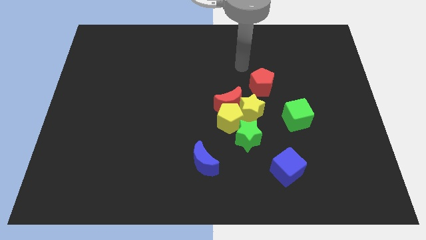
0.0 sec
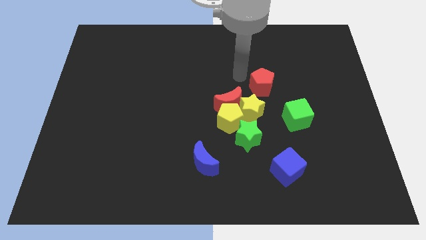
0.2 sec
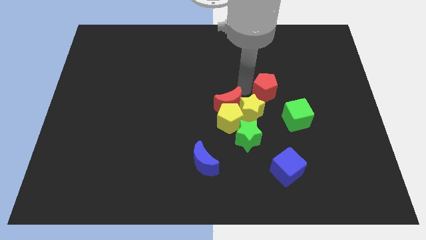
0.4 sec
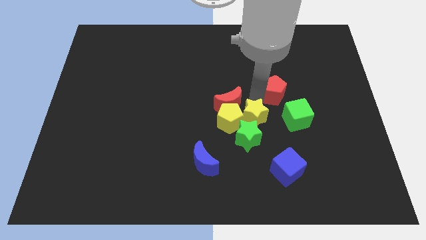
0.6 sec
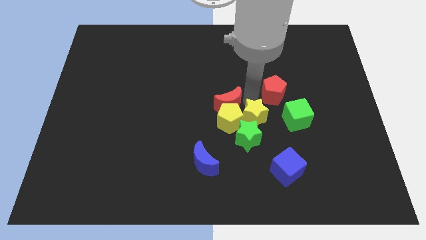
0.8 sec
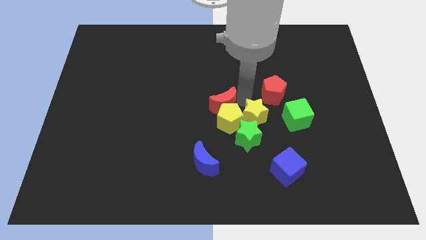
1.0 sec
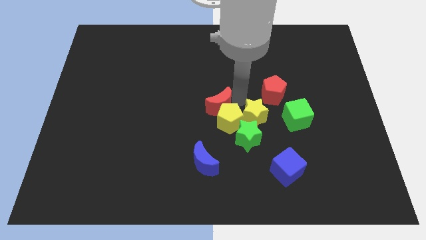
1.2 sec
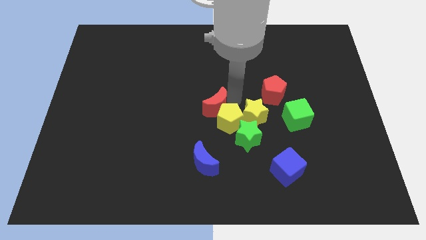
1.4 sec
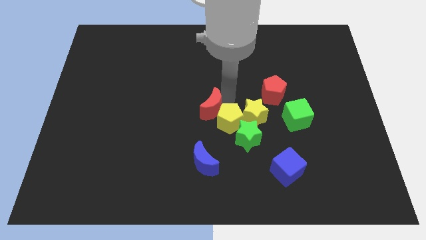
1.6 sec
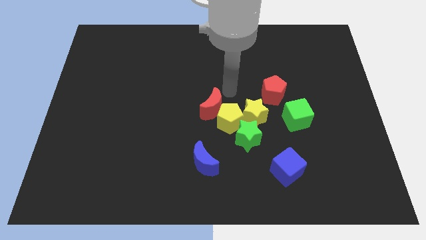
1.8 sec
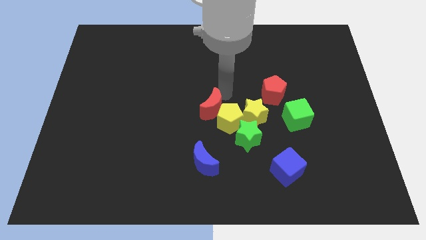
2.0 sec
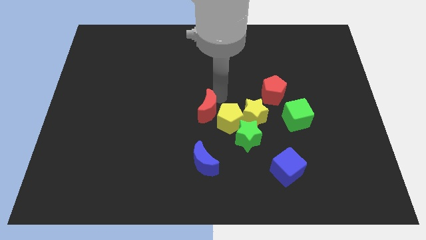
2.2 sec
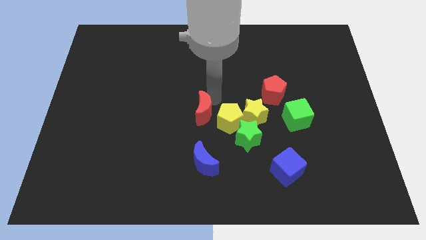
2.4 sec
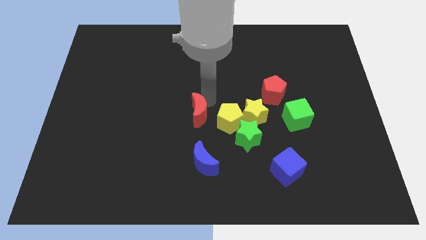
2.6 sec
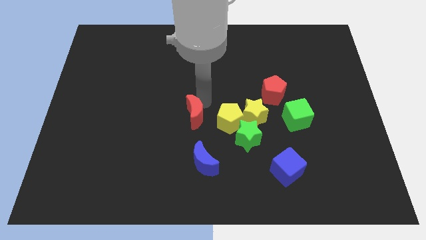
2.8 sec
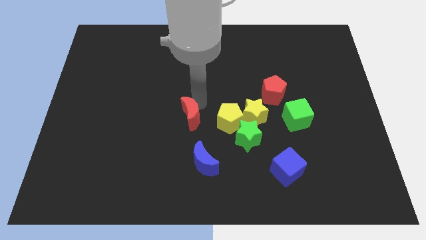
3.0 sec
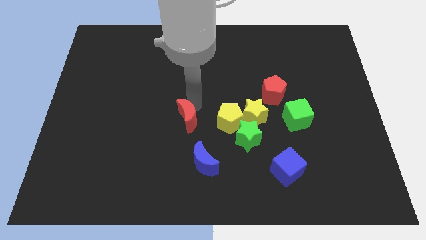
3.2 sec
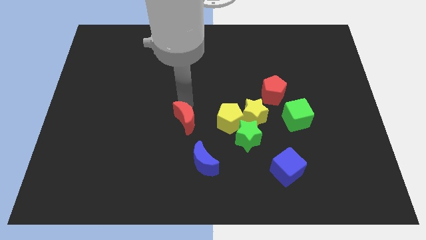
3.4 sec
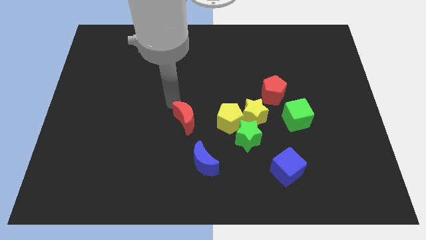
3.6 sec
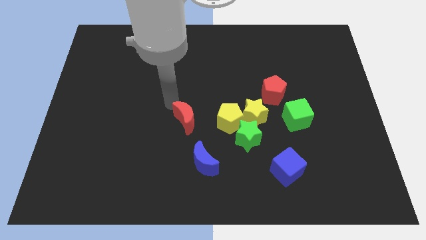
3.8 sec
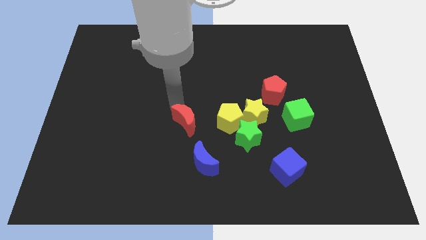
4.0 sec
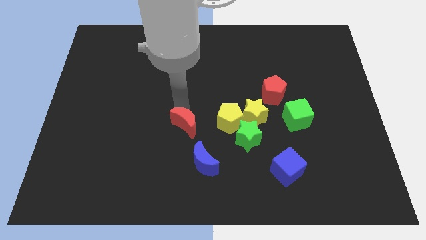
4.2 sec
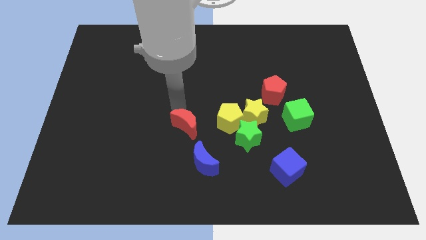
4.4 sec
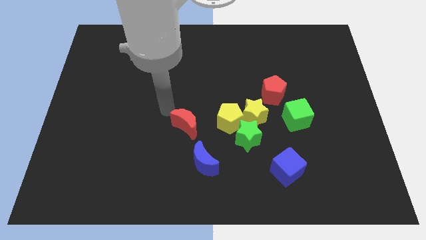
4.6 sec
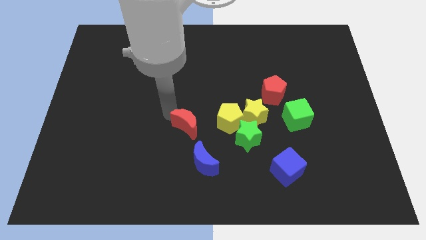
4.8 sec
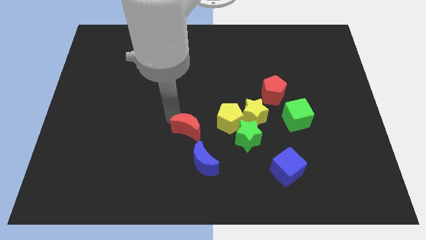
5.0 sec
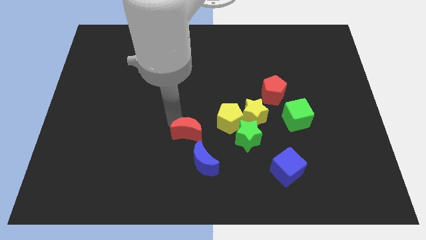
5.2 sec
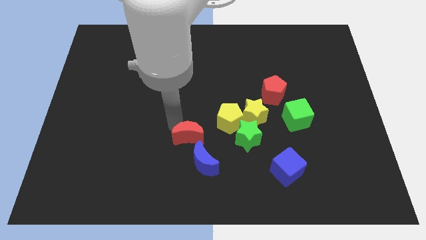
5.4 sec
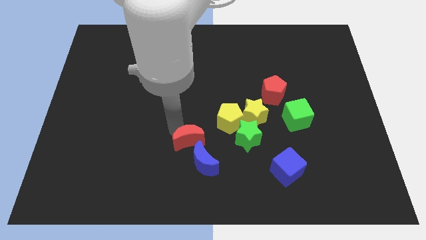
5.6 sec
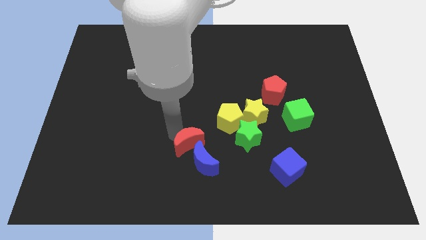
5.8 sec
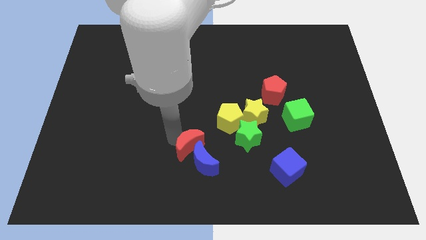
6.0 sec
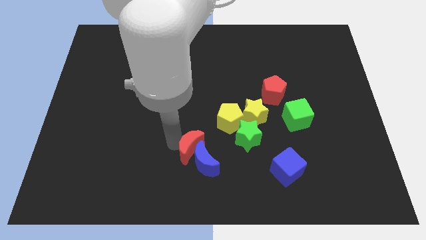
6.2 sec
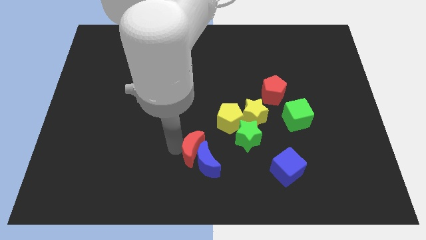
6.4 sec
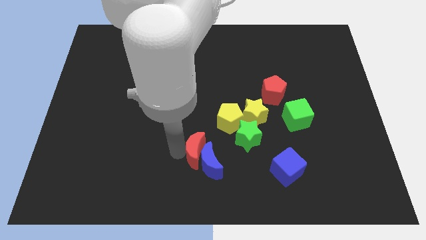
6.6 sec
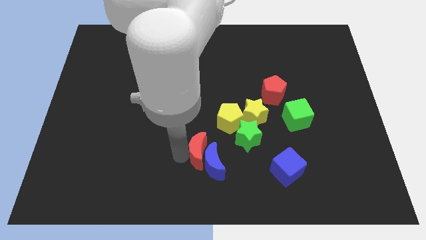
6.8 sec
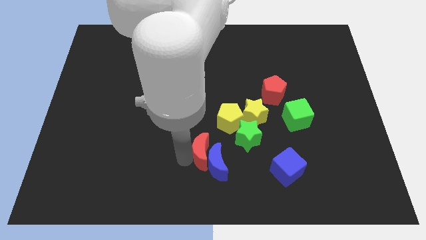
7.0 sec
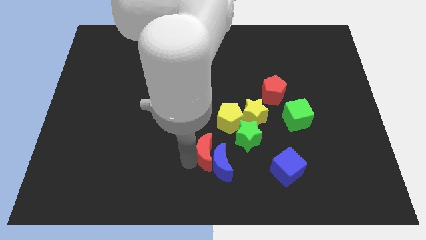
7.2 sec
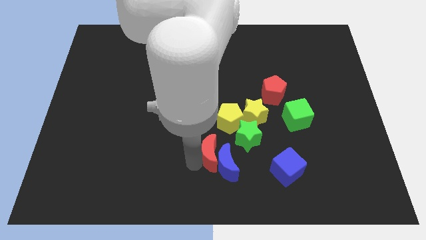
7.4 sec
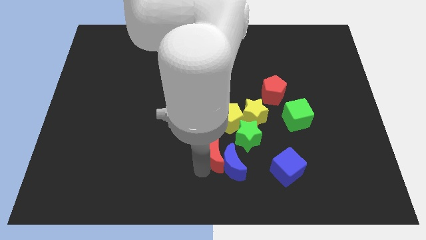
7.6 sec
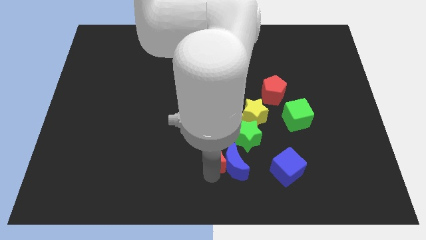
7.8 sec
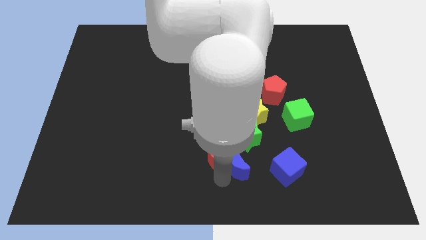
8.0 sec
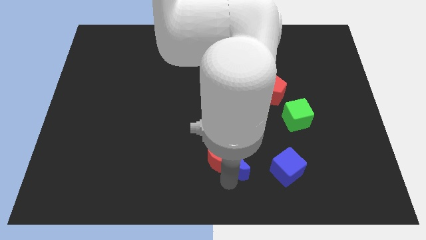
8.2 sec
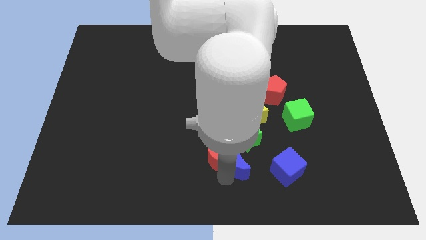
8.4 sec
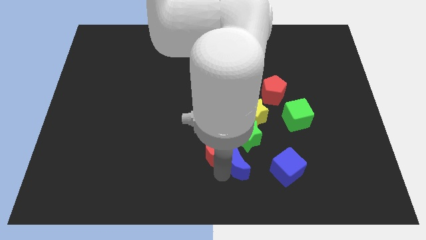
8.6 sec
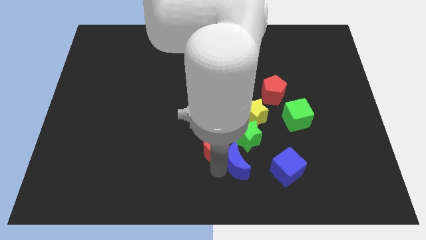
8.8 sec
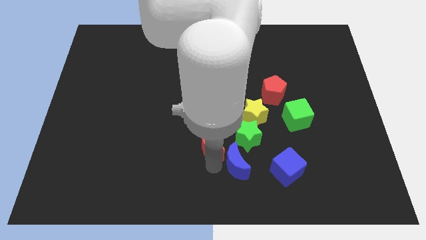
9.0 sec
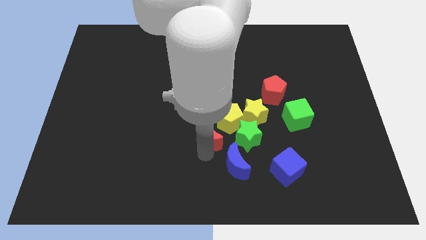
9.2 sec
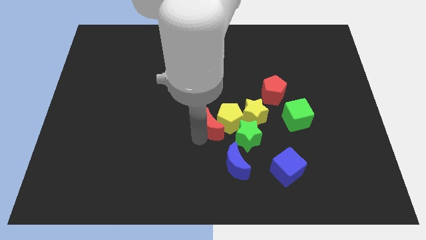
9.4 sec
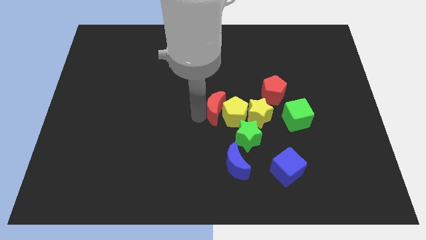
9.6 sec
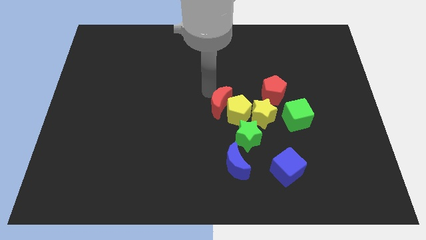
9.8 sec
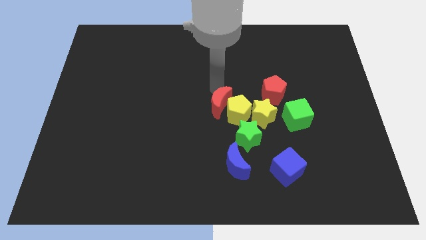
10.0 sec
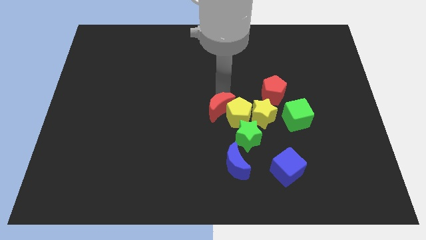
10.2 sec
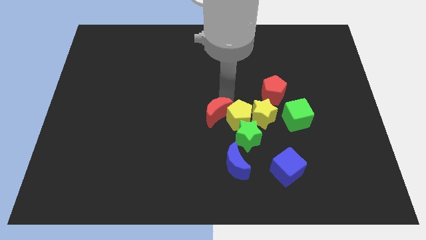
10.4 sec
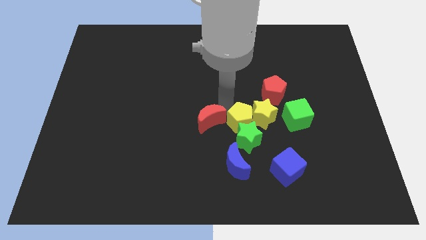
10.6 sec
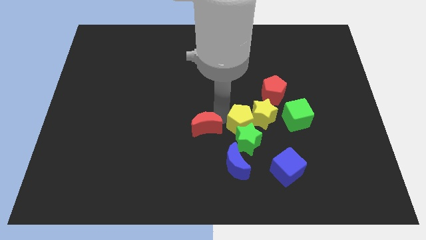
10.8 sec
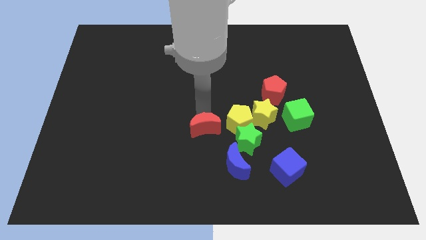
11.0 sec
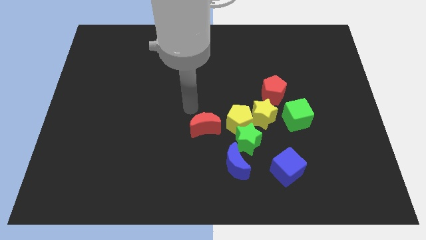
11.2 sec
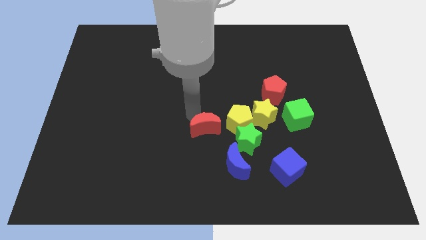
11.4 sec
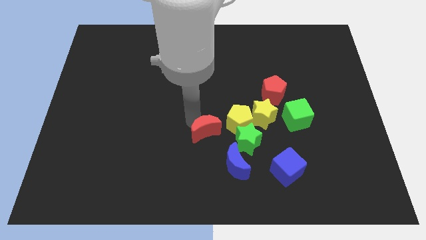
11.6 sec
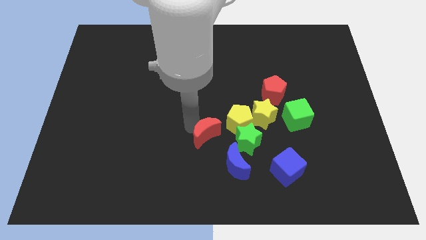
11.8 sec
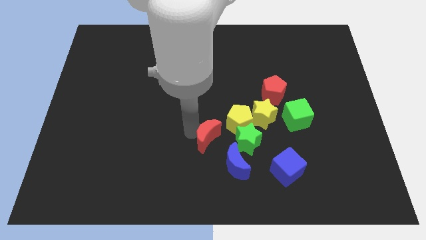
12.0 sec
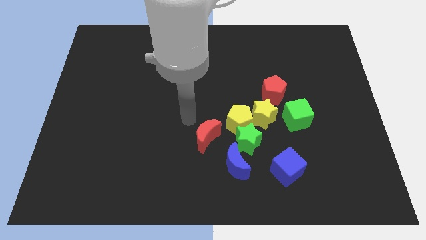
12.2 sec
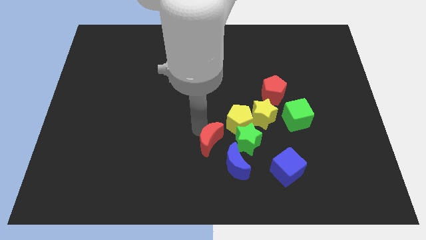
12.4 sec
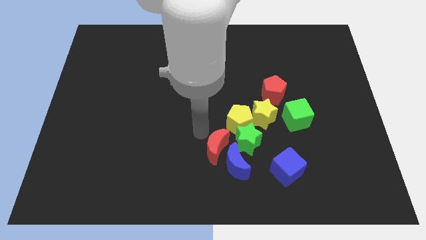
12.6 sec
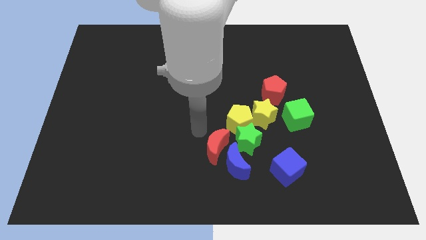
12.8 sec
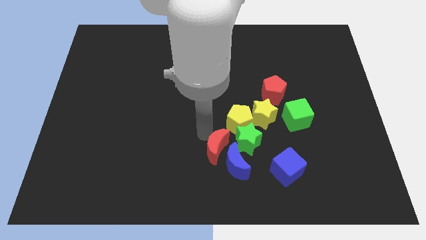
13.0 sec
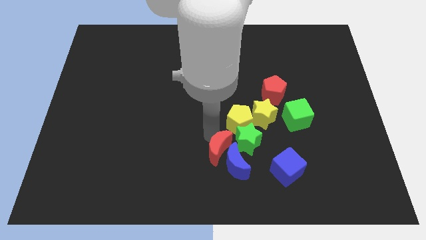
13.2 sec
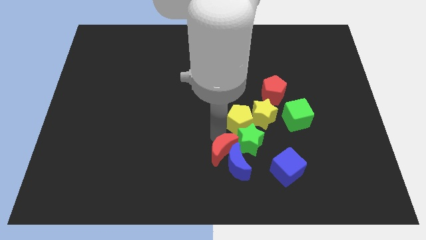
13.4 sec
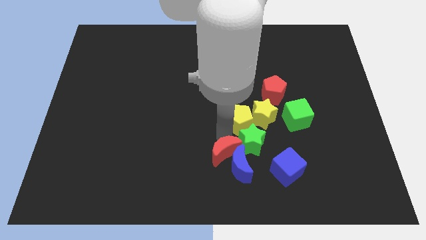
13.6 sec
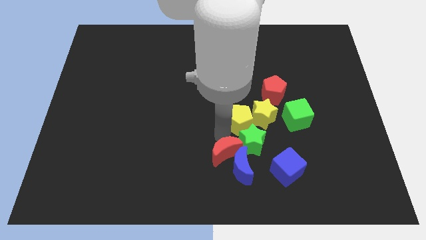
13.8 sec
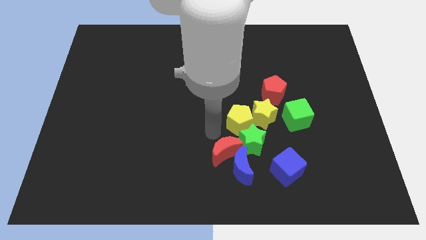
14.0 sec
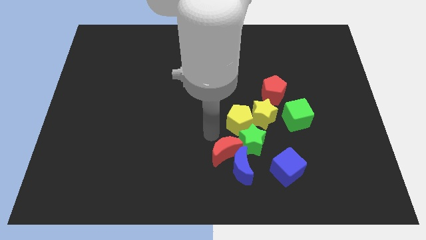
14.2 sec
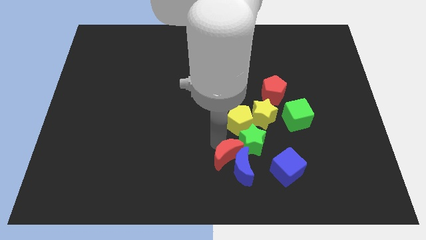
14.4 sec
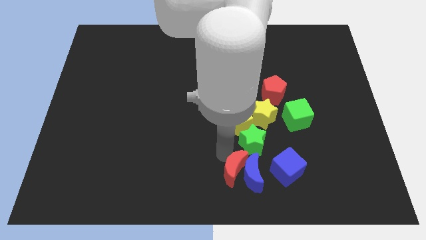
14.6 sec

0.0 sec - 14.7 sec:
move the red moon to the bottom of the green star

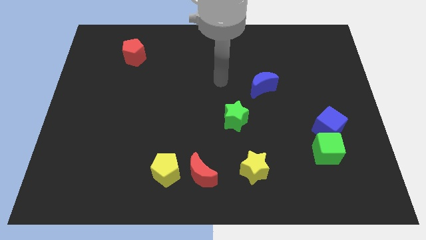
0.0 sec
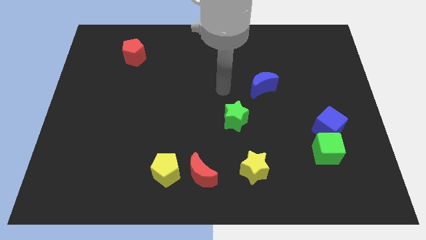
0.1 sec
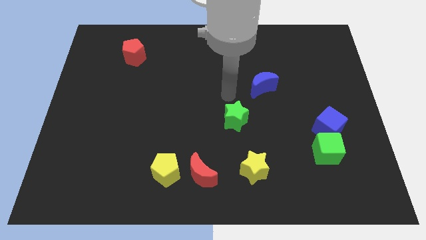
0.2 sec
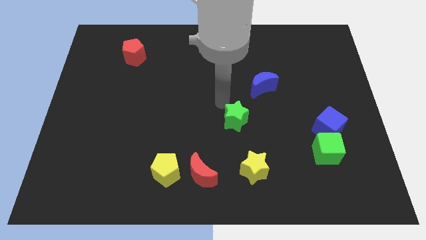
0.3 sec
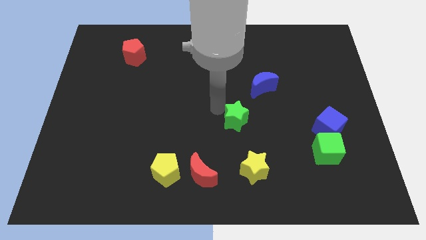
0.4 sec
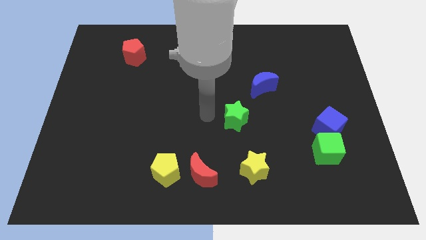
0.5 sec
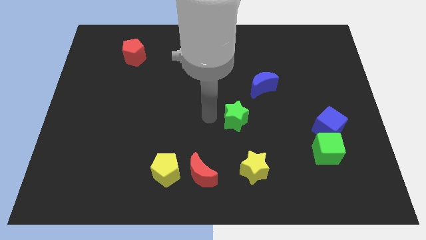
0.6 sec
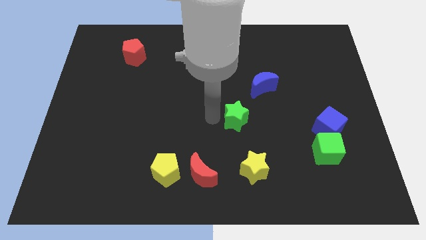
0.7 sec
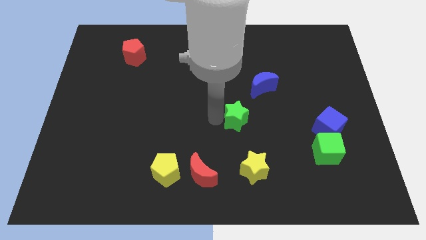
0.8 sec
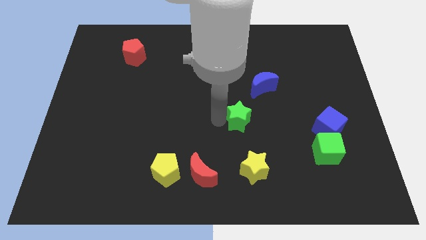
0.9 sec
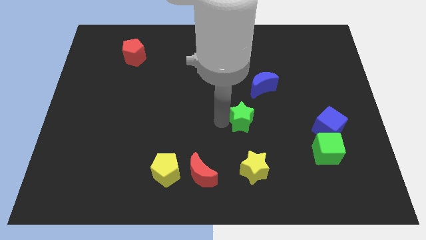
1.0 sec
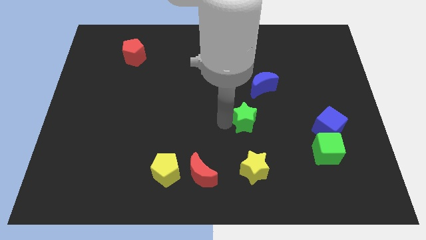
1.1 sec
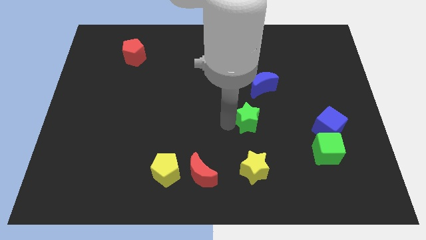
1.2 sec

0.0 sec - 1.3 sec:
slide the green star below the blue moon

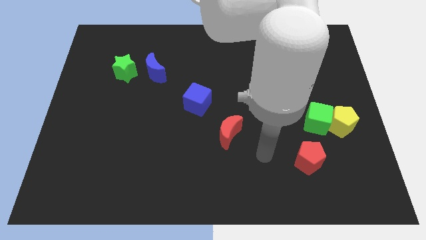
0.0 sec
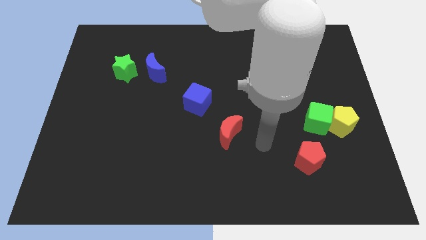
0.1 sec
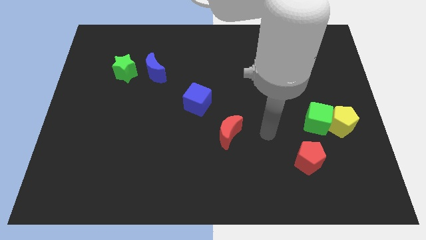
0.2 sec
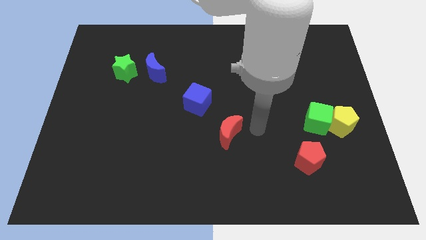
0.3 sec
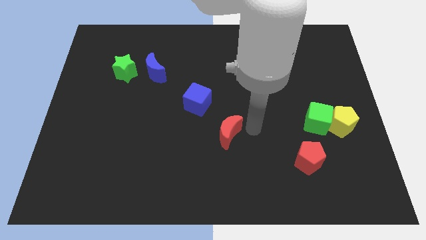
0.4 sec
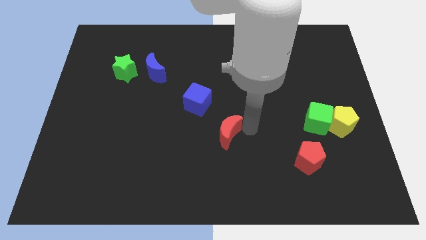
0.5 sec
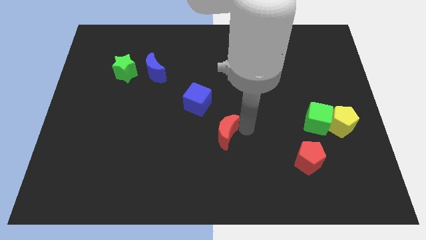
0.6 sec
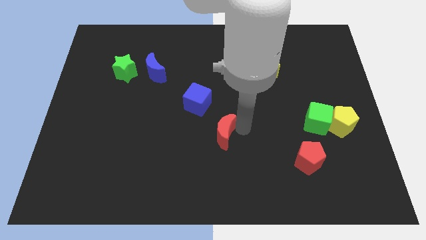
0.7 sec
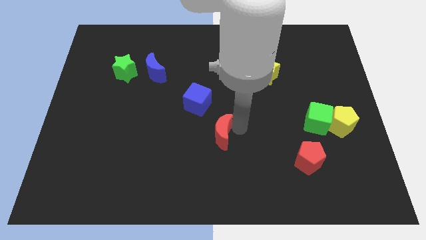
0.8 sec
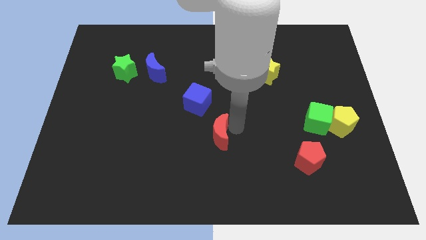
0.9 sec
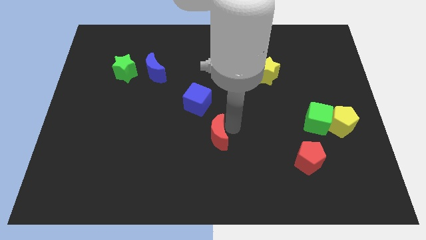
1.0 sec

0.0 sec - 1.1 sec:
put the red moon to the bottom side of the blue cube
